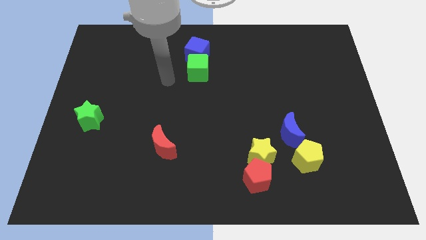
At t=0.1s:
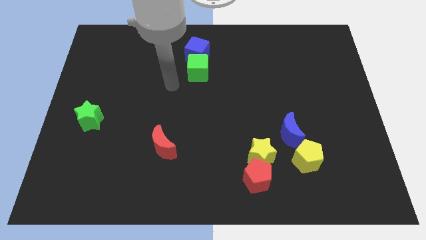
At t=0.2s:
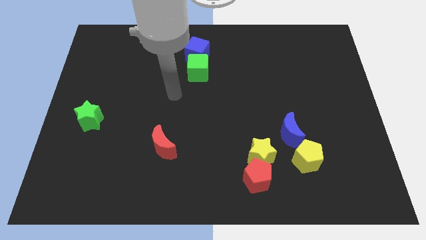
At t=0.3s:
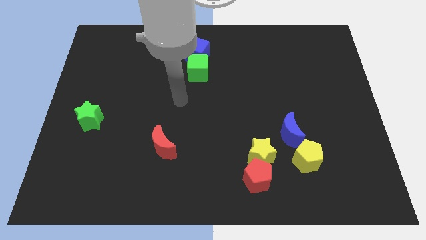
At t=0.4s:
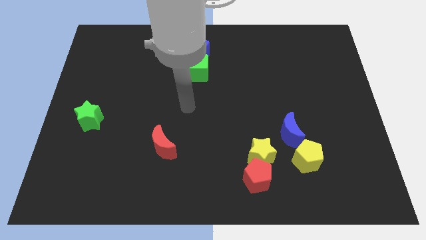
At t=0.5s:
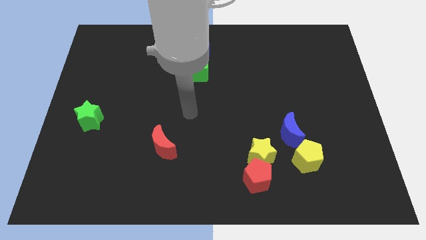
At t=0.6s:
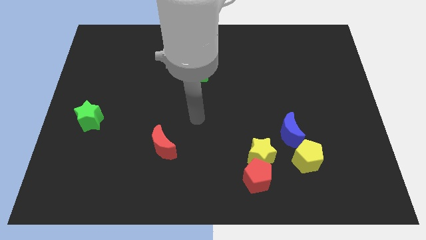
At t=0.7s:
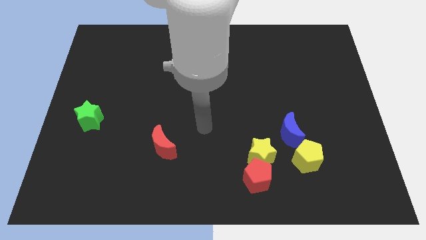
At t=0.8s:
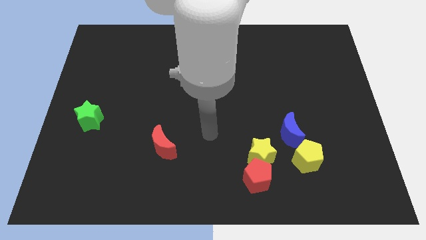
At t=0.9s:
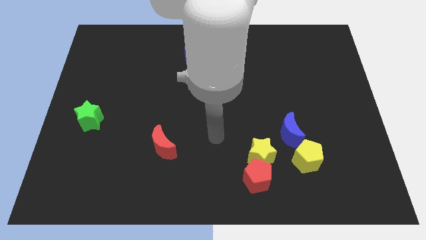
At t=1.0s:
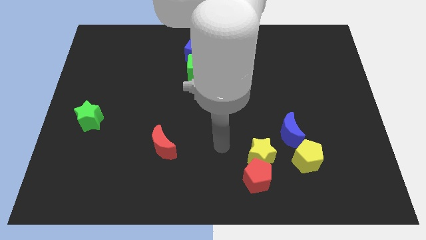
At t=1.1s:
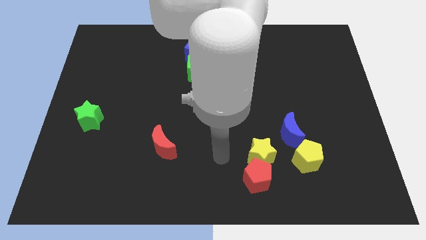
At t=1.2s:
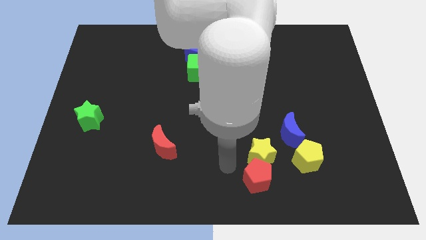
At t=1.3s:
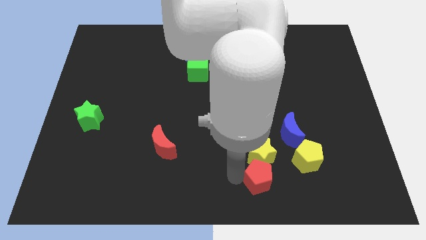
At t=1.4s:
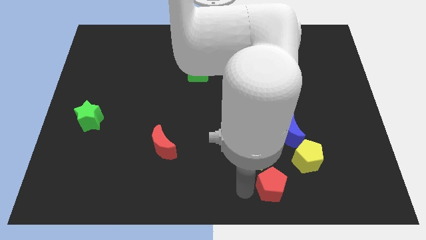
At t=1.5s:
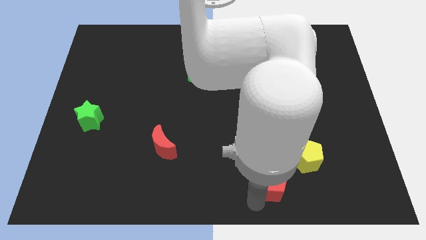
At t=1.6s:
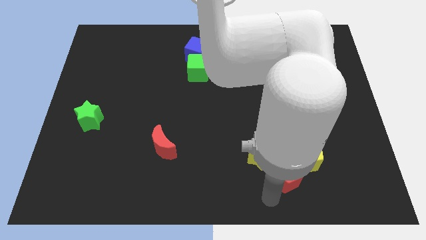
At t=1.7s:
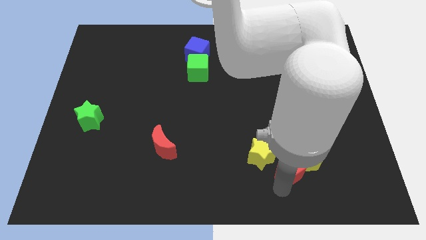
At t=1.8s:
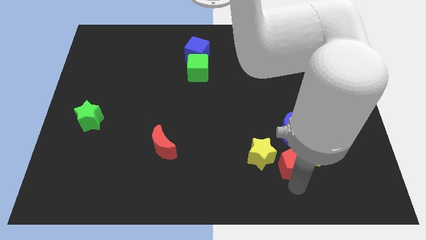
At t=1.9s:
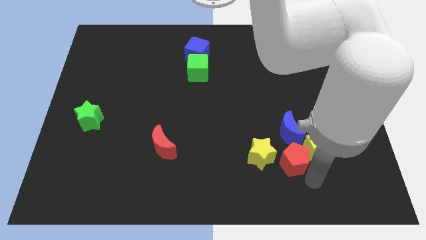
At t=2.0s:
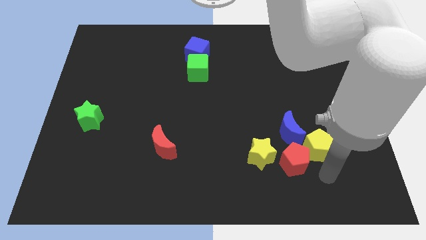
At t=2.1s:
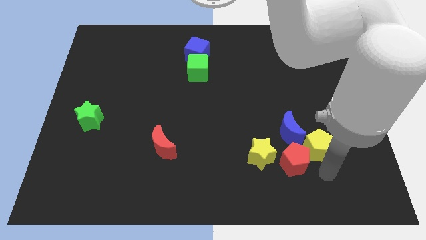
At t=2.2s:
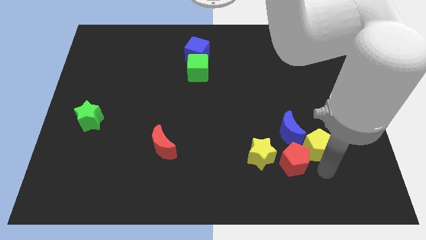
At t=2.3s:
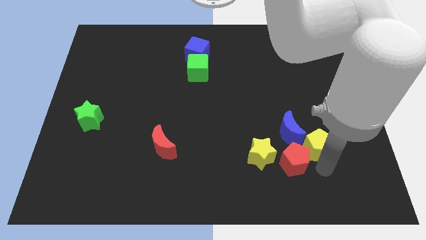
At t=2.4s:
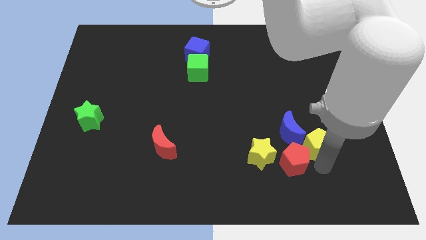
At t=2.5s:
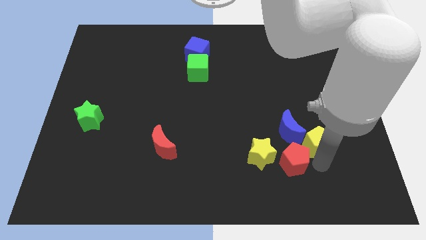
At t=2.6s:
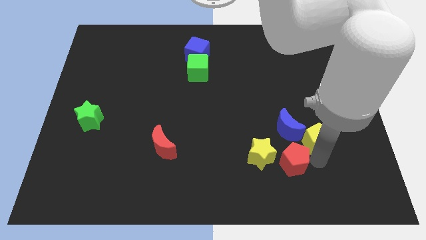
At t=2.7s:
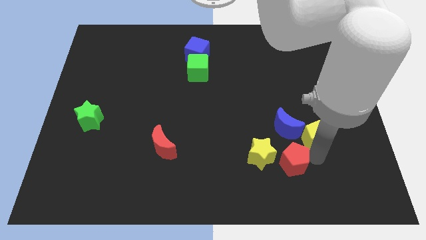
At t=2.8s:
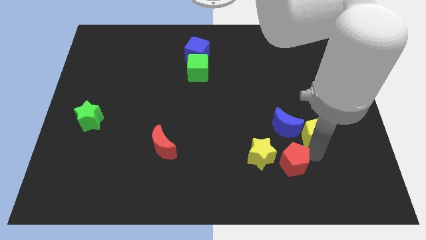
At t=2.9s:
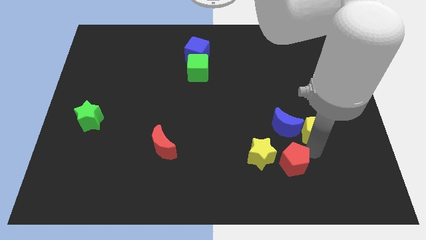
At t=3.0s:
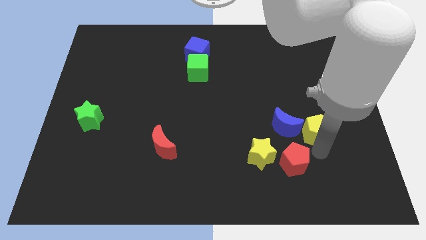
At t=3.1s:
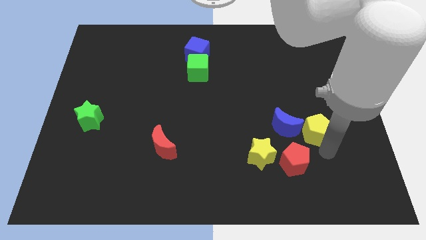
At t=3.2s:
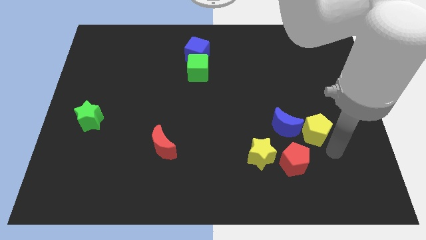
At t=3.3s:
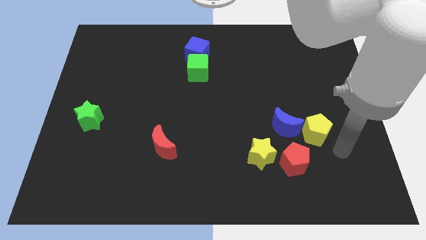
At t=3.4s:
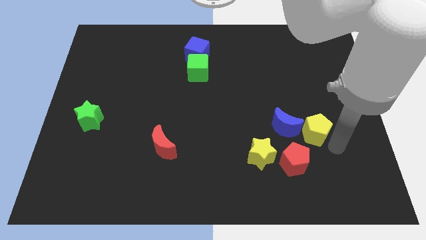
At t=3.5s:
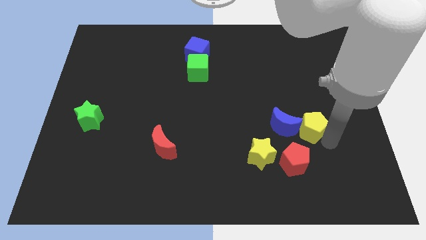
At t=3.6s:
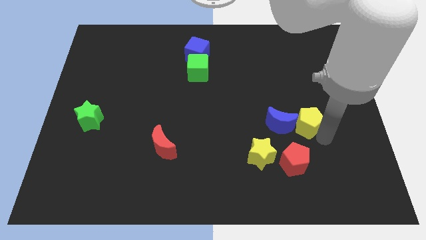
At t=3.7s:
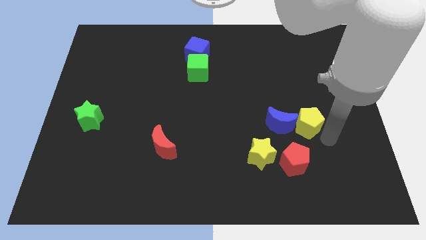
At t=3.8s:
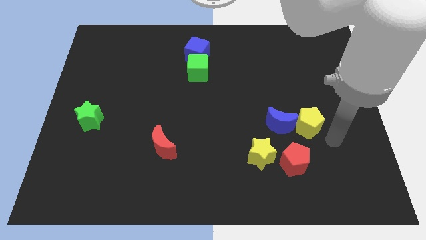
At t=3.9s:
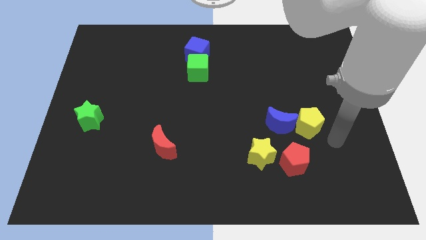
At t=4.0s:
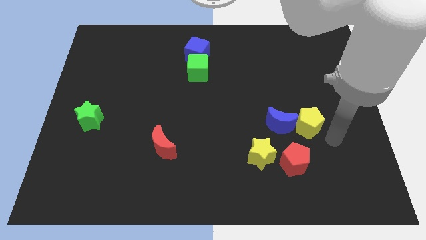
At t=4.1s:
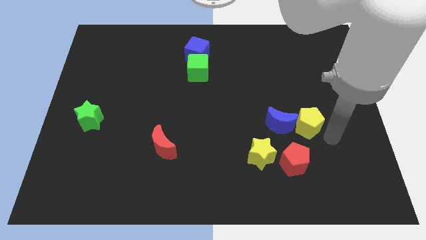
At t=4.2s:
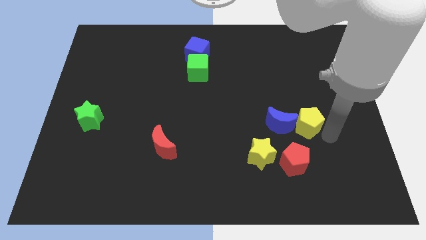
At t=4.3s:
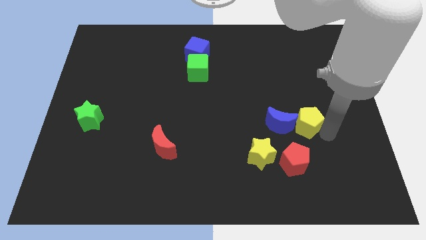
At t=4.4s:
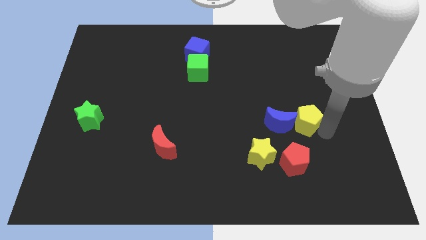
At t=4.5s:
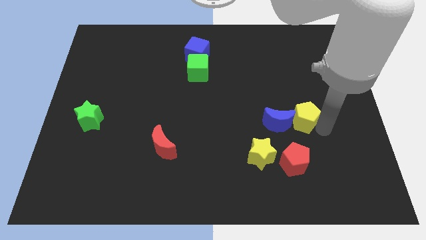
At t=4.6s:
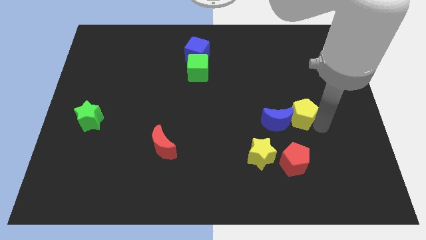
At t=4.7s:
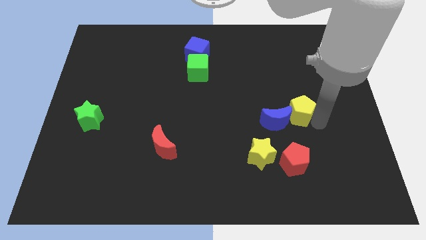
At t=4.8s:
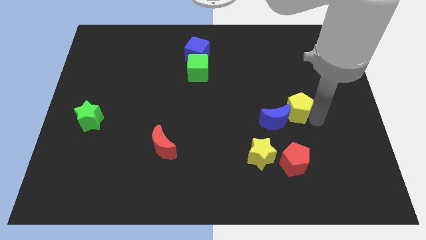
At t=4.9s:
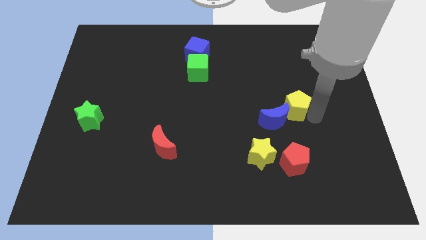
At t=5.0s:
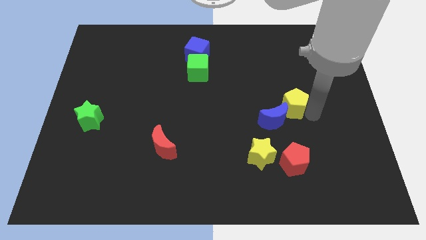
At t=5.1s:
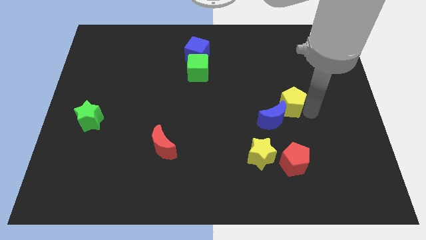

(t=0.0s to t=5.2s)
push the yellow pentagon a bit up and to the left diagonally

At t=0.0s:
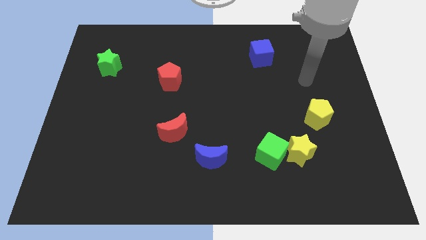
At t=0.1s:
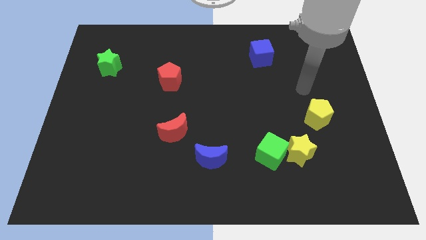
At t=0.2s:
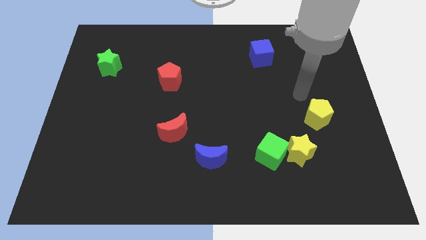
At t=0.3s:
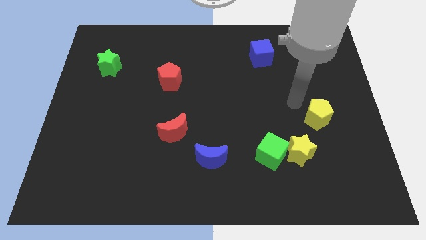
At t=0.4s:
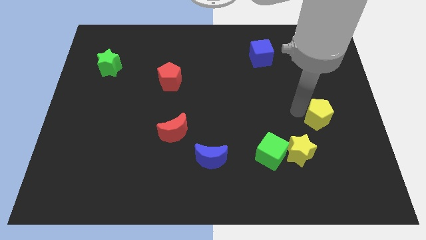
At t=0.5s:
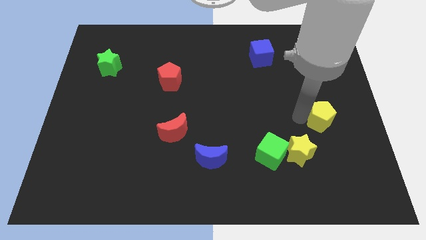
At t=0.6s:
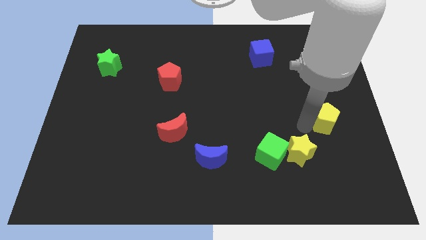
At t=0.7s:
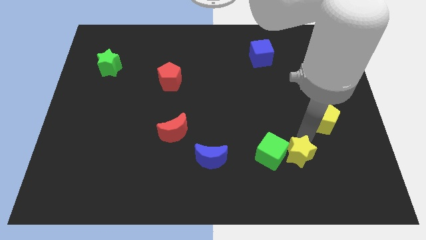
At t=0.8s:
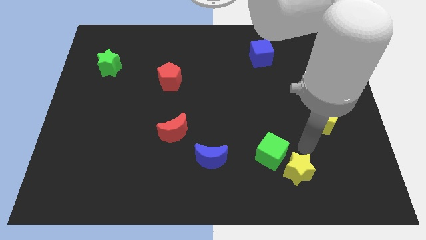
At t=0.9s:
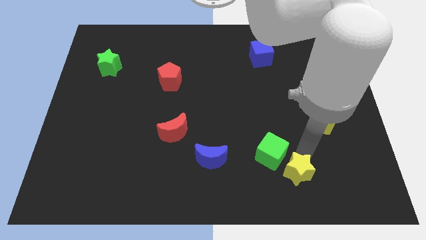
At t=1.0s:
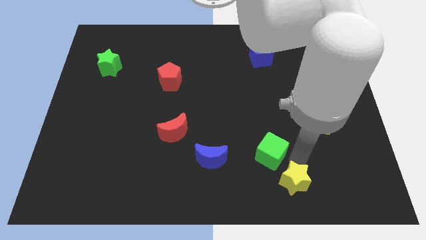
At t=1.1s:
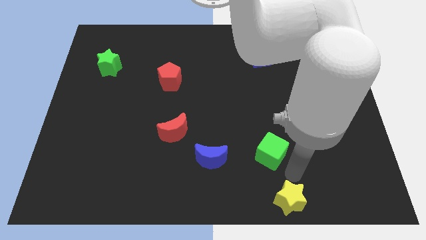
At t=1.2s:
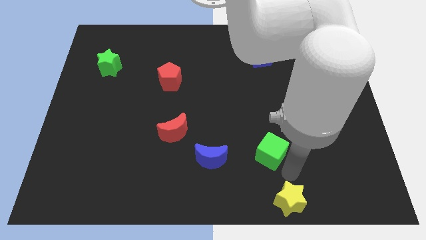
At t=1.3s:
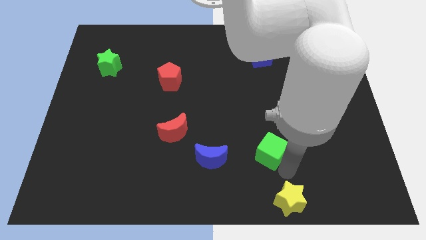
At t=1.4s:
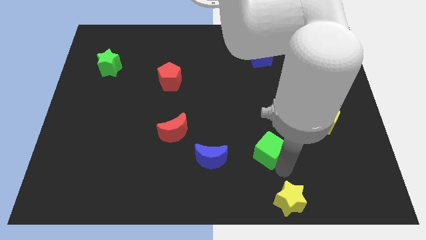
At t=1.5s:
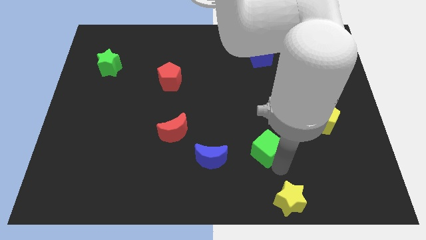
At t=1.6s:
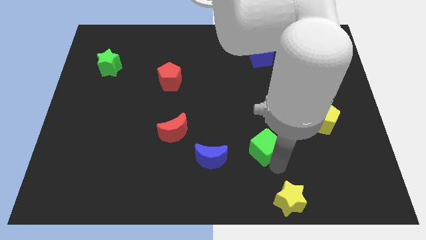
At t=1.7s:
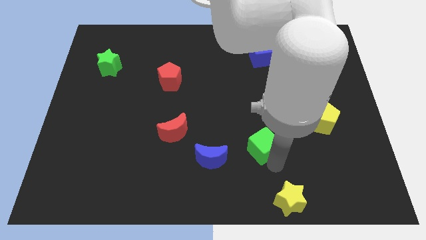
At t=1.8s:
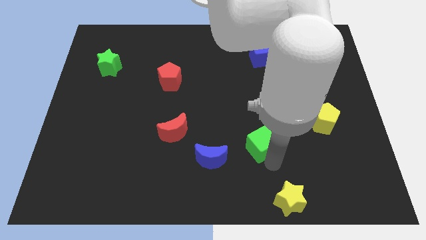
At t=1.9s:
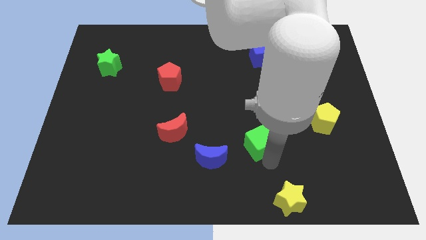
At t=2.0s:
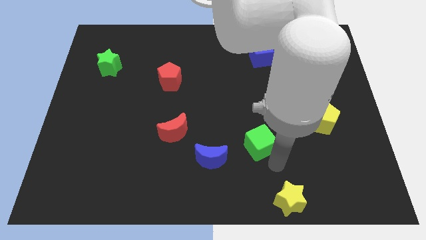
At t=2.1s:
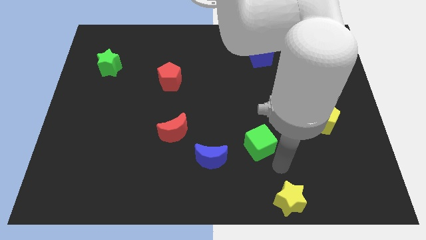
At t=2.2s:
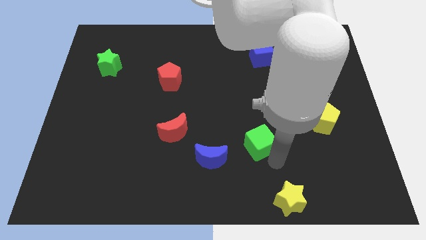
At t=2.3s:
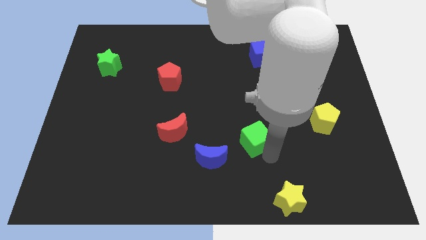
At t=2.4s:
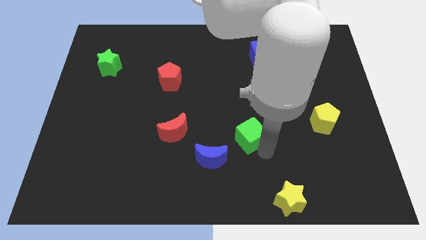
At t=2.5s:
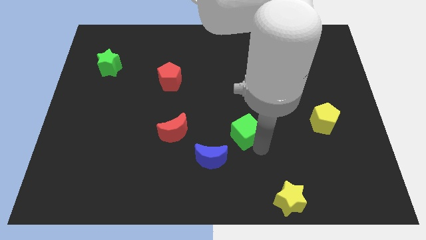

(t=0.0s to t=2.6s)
slightly slide the green cube up and to the left diagonally
